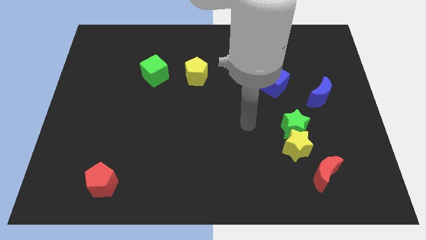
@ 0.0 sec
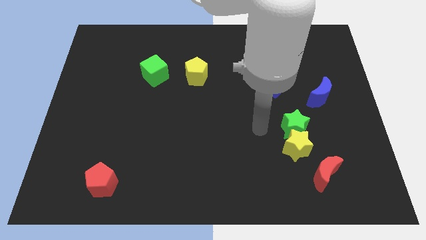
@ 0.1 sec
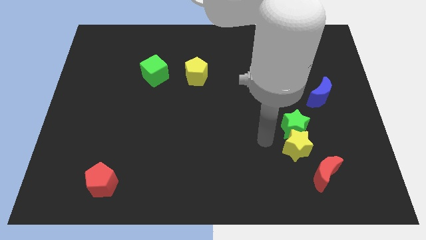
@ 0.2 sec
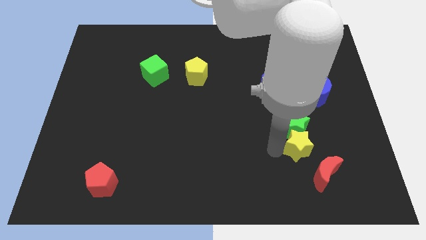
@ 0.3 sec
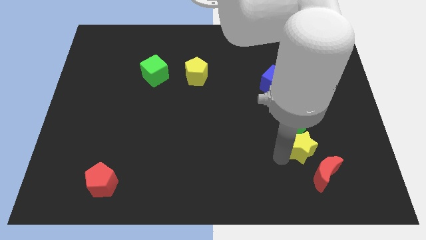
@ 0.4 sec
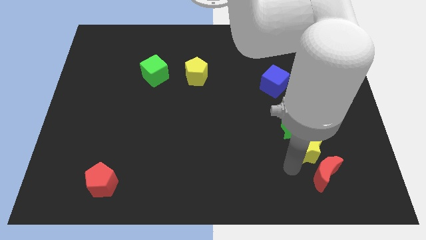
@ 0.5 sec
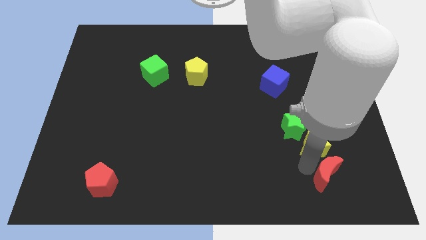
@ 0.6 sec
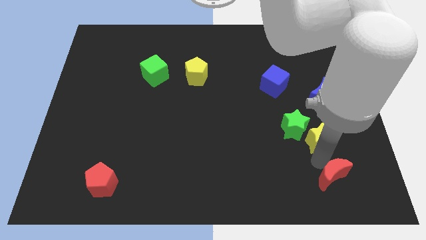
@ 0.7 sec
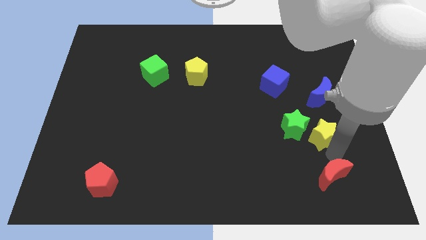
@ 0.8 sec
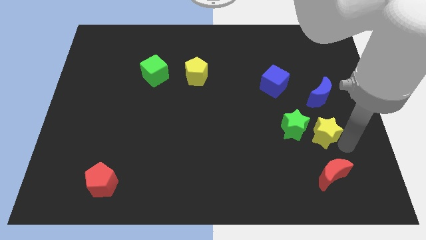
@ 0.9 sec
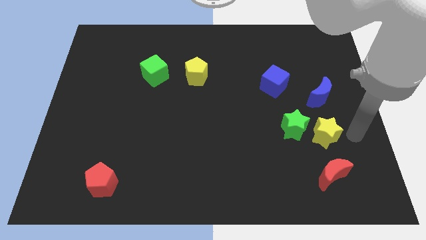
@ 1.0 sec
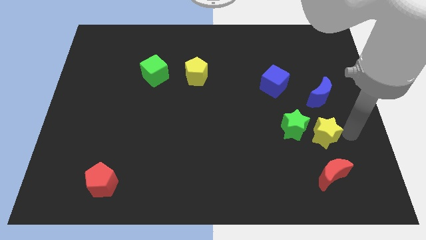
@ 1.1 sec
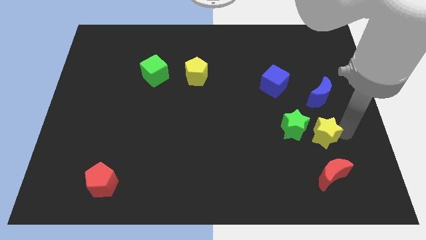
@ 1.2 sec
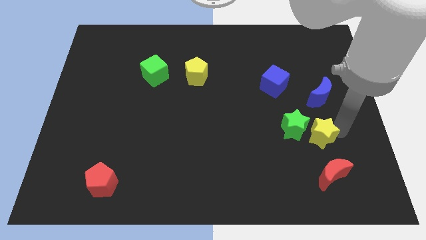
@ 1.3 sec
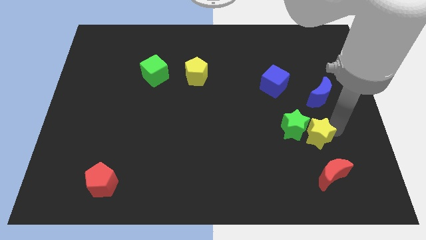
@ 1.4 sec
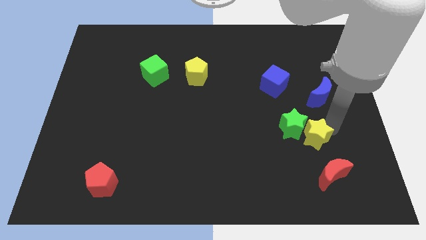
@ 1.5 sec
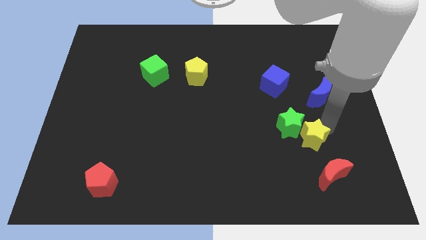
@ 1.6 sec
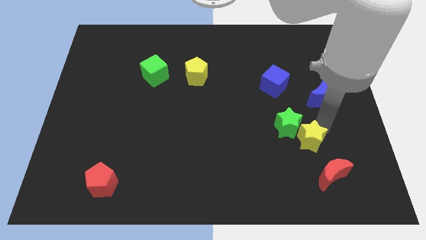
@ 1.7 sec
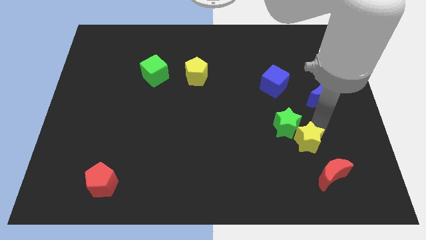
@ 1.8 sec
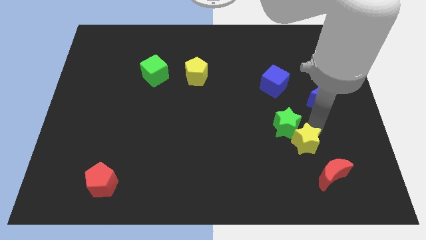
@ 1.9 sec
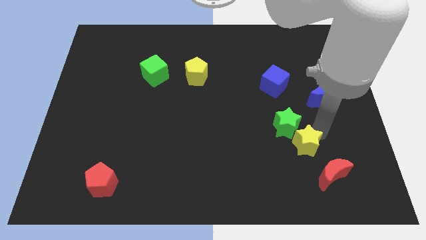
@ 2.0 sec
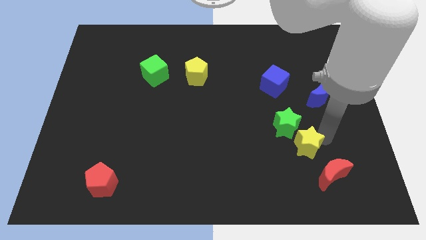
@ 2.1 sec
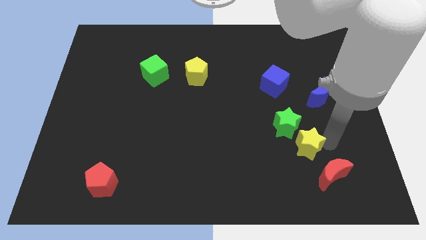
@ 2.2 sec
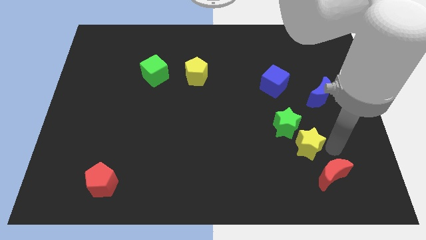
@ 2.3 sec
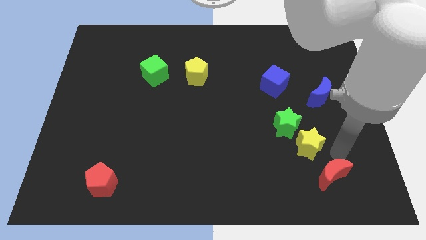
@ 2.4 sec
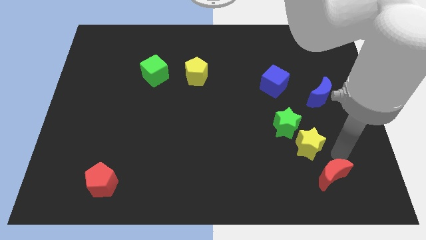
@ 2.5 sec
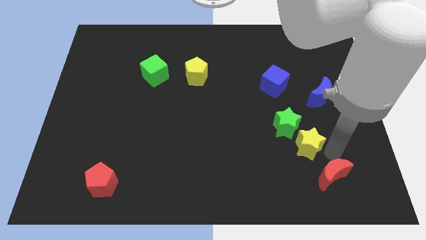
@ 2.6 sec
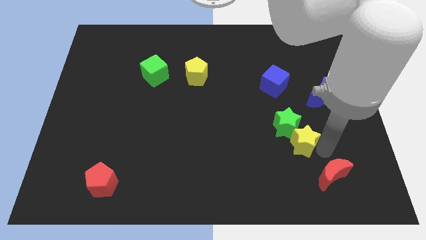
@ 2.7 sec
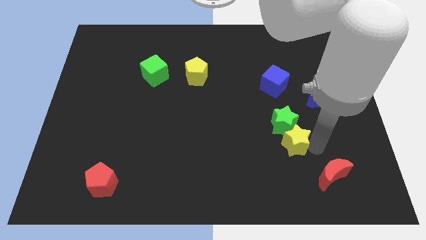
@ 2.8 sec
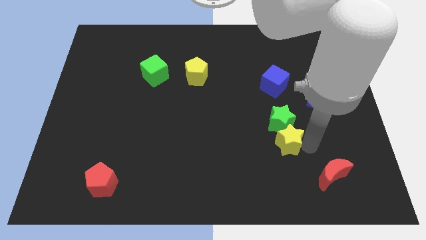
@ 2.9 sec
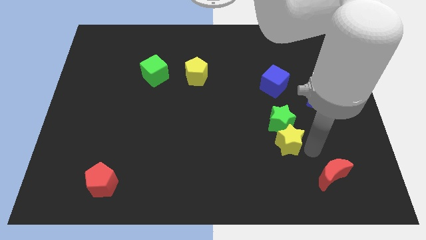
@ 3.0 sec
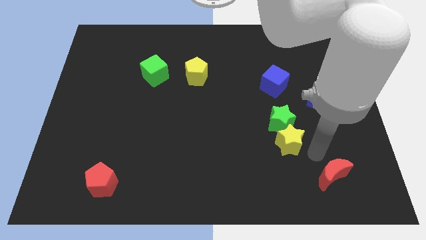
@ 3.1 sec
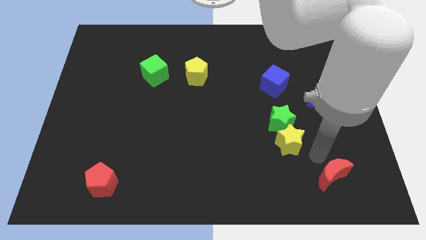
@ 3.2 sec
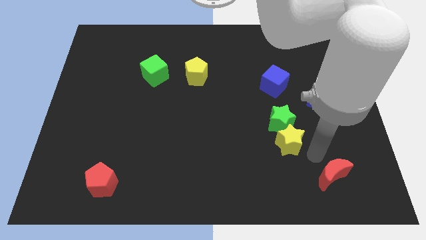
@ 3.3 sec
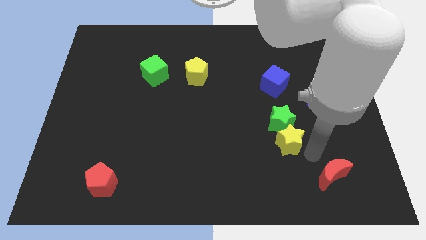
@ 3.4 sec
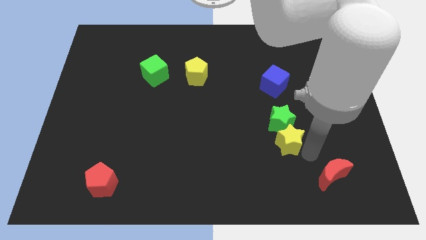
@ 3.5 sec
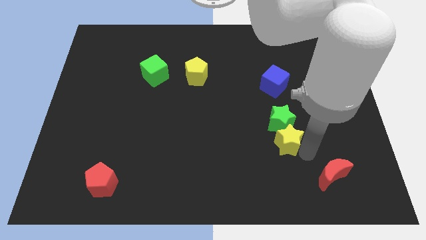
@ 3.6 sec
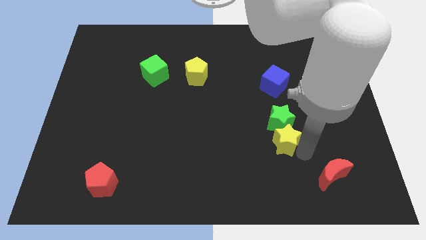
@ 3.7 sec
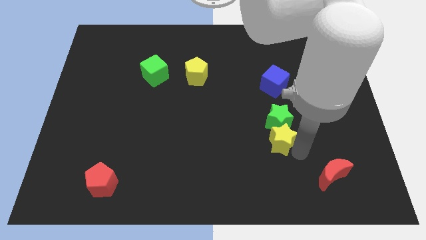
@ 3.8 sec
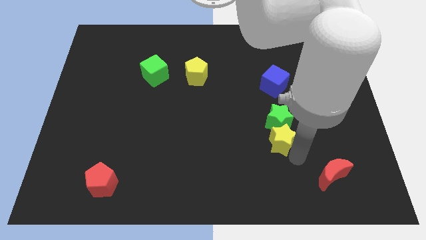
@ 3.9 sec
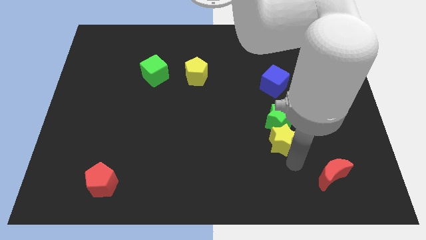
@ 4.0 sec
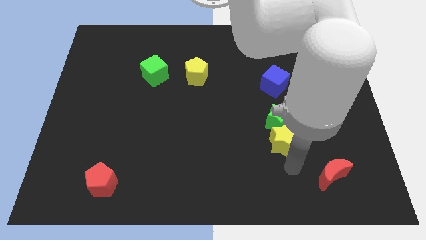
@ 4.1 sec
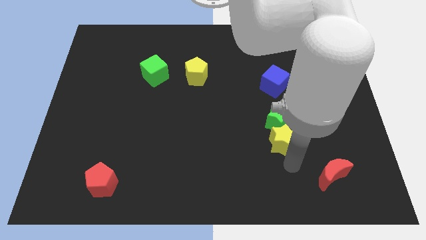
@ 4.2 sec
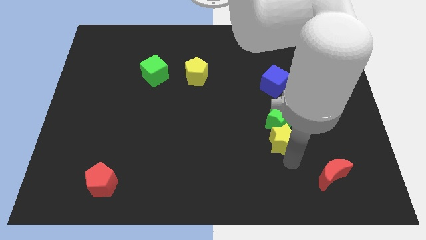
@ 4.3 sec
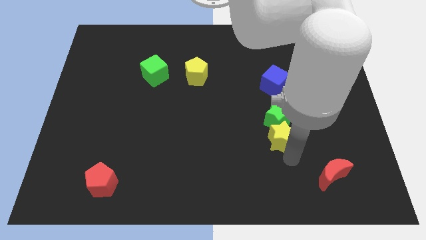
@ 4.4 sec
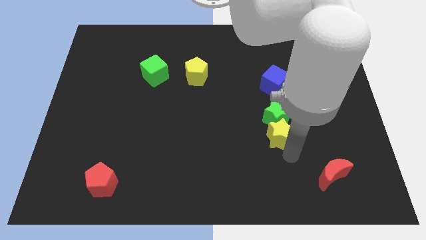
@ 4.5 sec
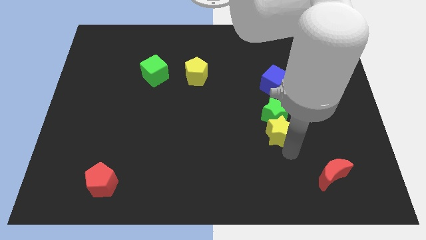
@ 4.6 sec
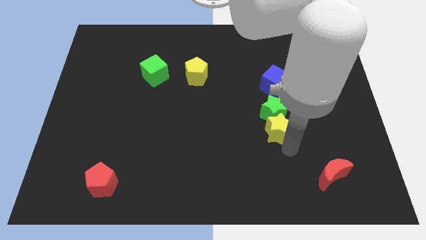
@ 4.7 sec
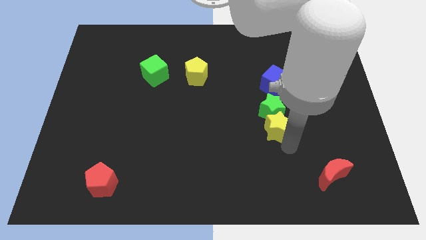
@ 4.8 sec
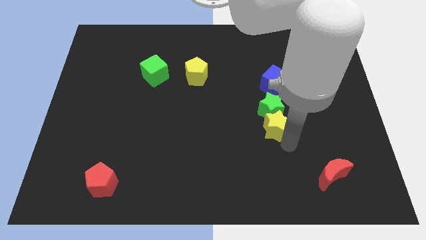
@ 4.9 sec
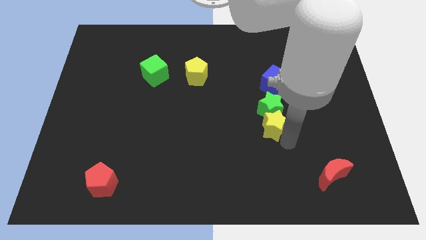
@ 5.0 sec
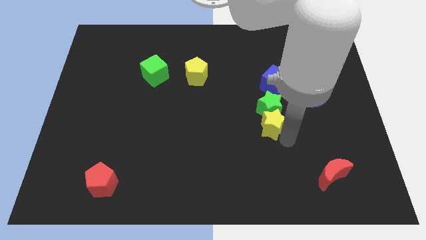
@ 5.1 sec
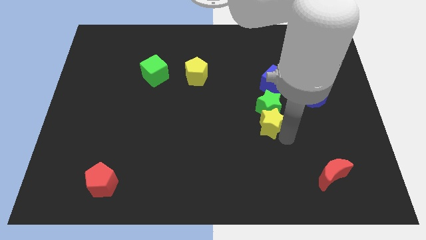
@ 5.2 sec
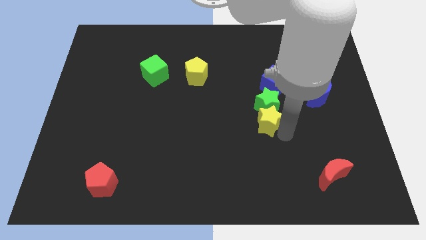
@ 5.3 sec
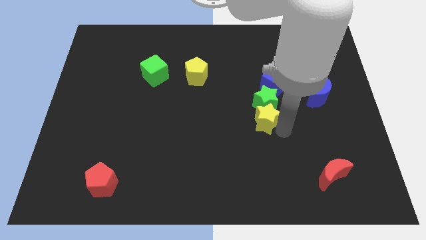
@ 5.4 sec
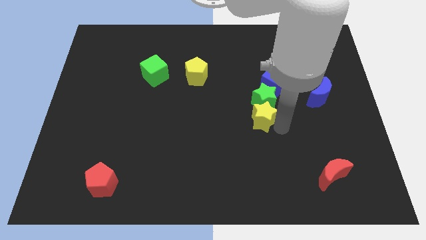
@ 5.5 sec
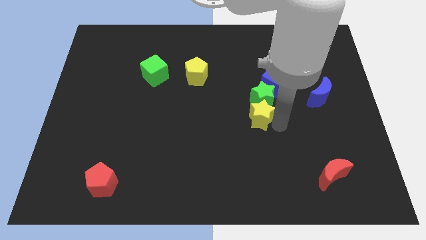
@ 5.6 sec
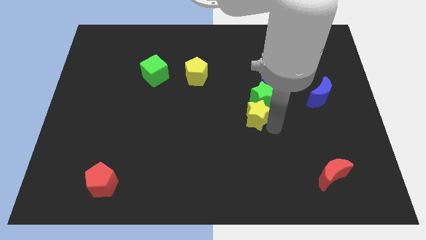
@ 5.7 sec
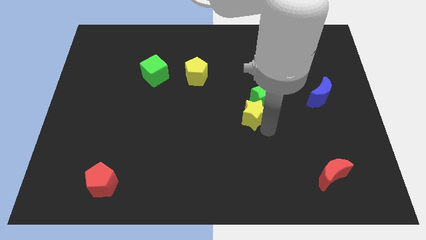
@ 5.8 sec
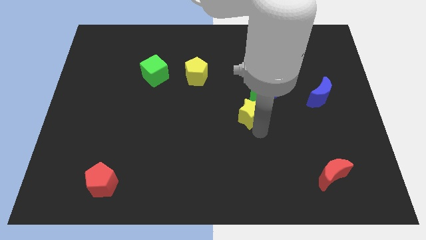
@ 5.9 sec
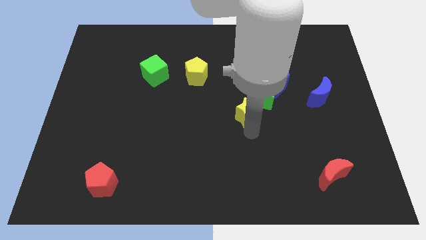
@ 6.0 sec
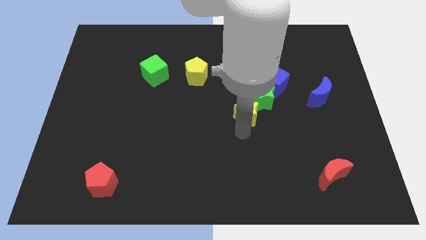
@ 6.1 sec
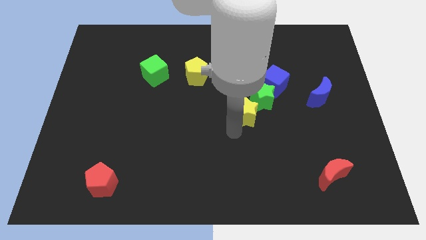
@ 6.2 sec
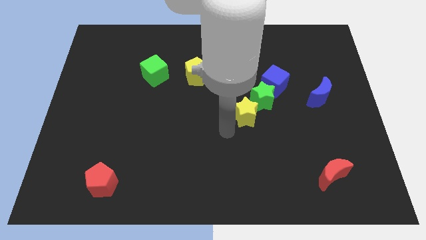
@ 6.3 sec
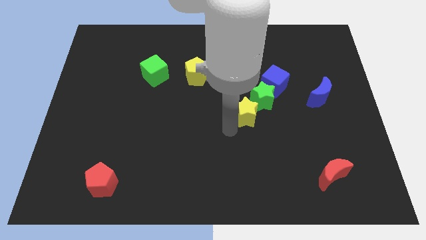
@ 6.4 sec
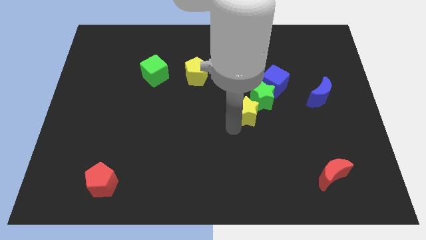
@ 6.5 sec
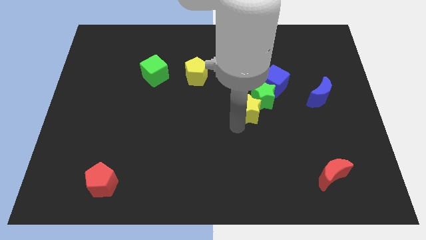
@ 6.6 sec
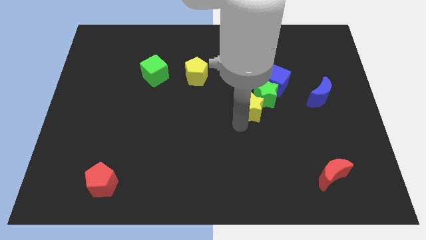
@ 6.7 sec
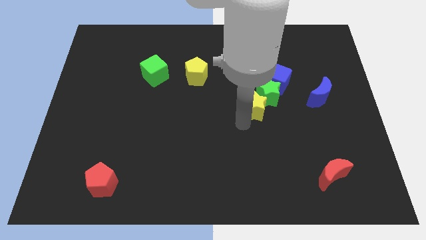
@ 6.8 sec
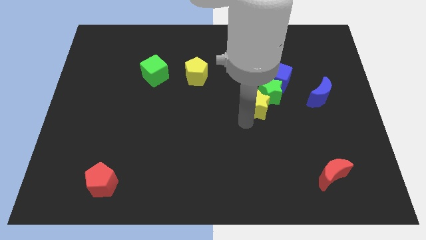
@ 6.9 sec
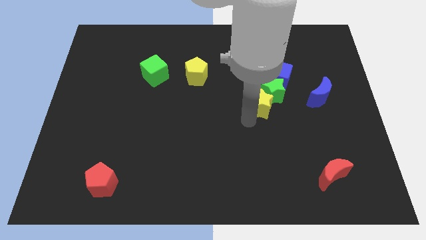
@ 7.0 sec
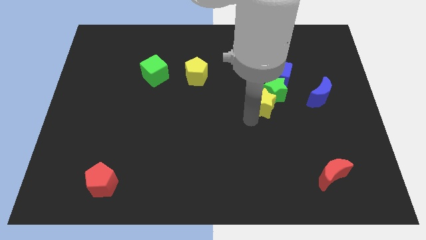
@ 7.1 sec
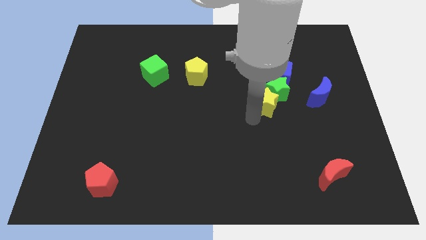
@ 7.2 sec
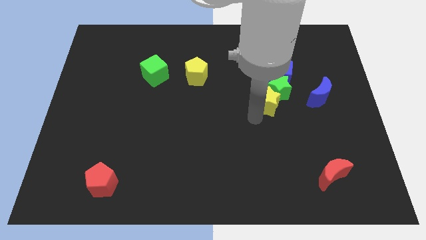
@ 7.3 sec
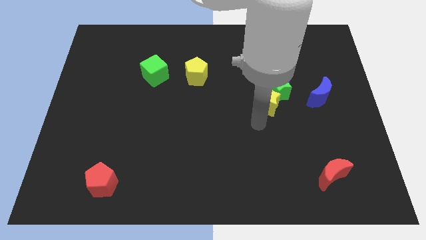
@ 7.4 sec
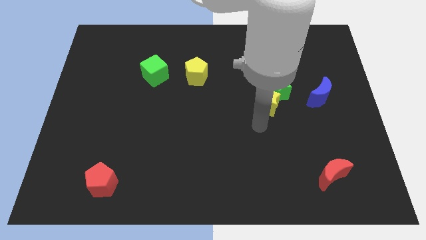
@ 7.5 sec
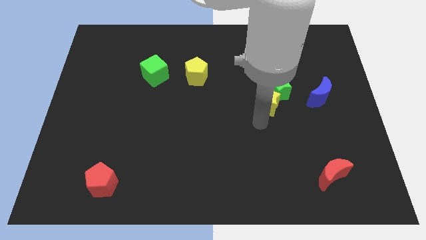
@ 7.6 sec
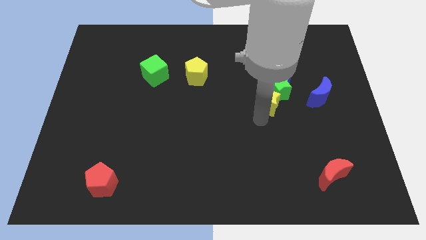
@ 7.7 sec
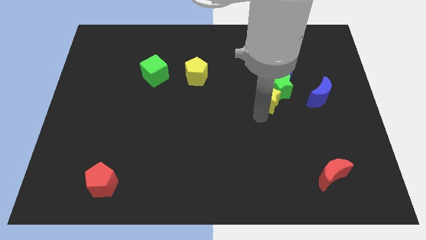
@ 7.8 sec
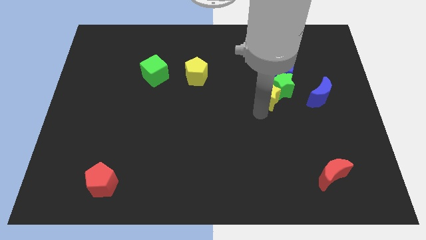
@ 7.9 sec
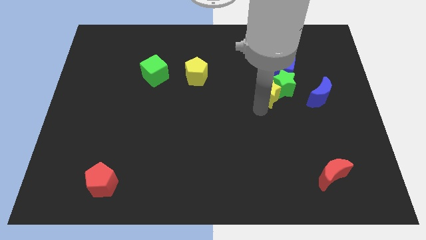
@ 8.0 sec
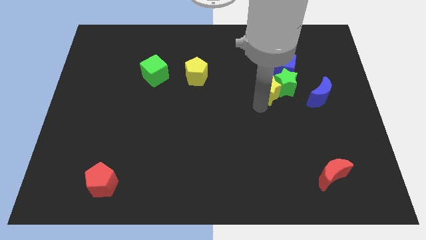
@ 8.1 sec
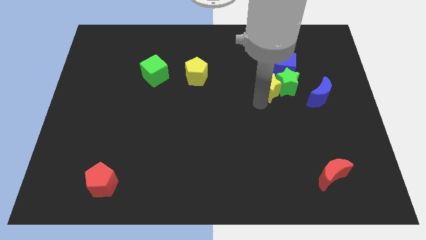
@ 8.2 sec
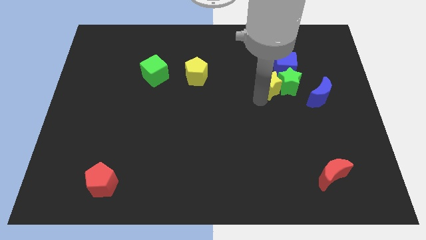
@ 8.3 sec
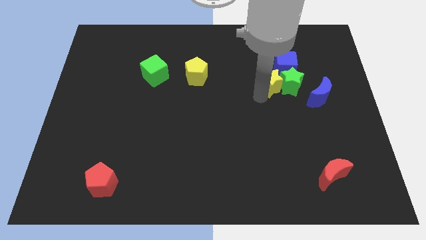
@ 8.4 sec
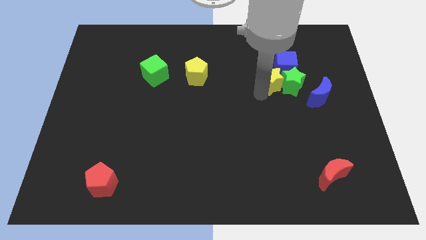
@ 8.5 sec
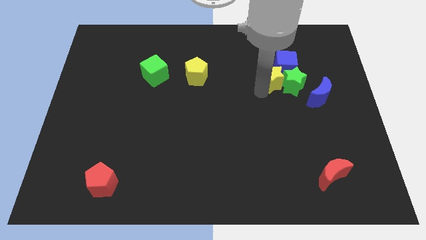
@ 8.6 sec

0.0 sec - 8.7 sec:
push the yellow star close to the blue cube
